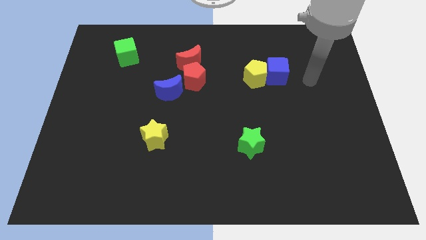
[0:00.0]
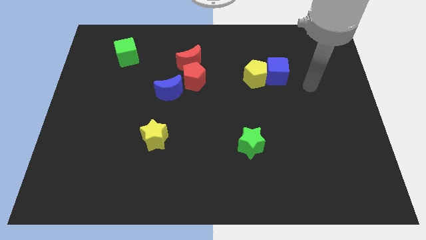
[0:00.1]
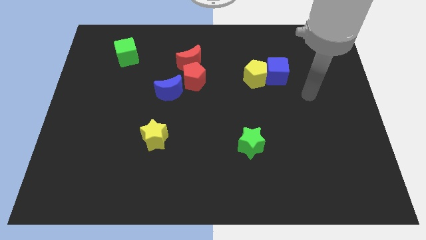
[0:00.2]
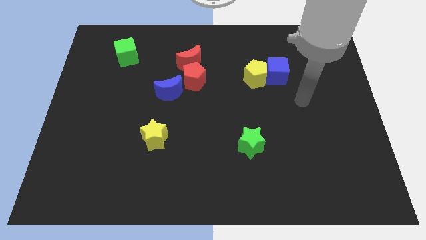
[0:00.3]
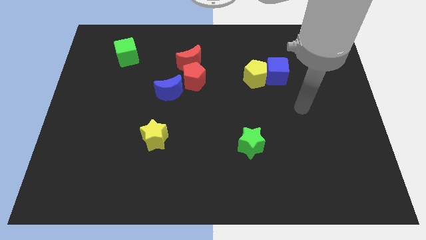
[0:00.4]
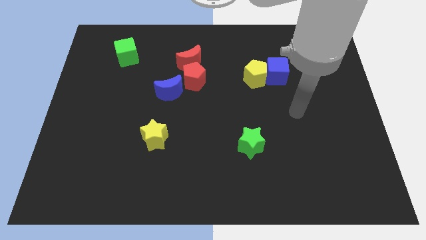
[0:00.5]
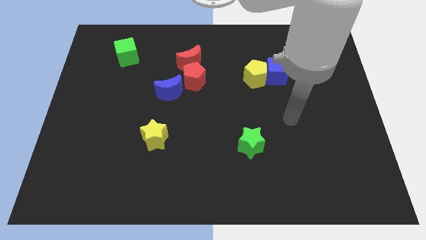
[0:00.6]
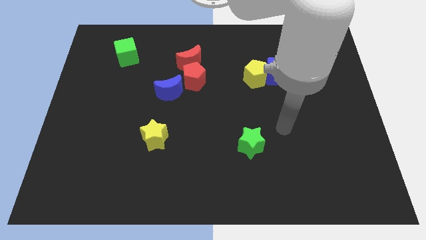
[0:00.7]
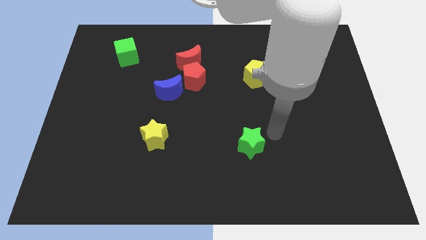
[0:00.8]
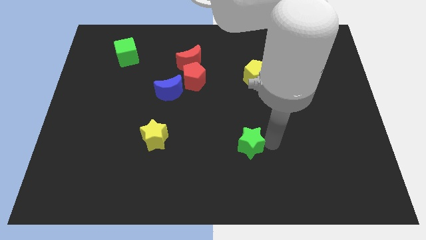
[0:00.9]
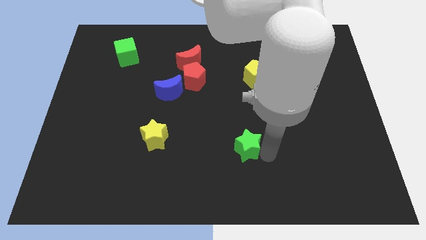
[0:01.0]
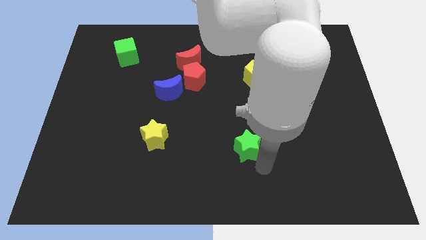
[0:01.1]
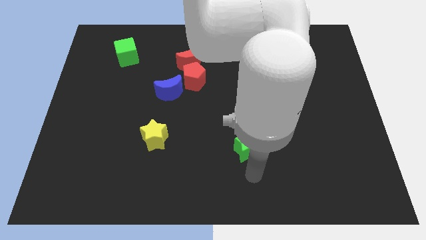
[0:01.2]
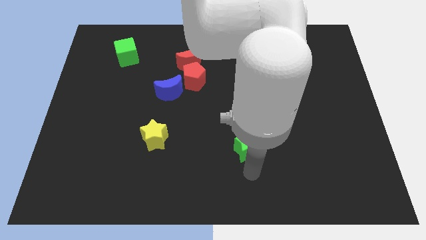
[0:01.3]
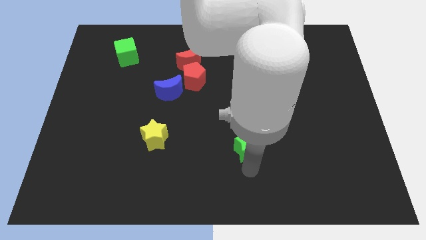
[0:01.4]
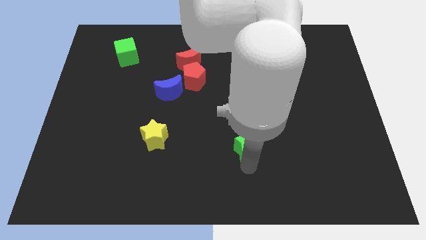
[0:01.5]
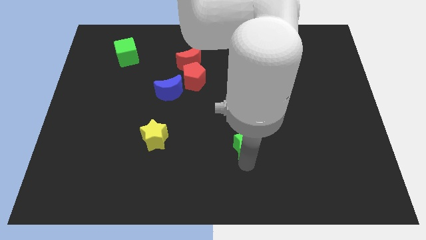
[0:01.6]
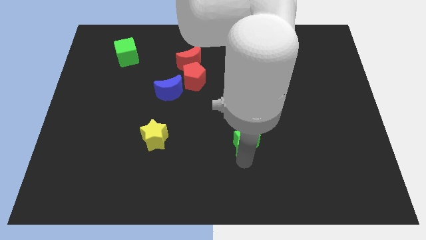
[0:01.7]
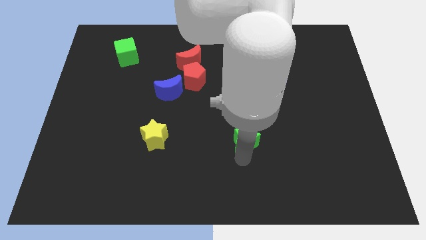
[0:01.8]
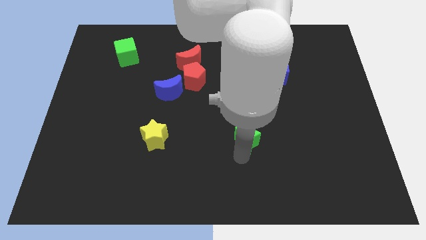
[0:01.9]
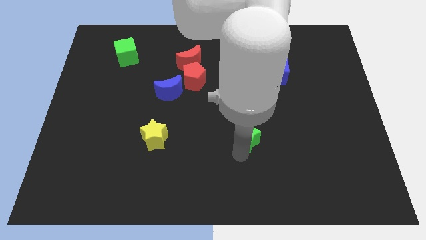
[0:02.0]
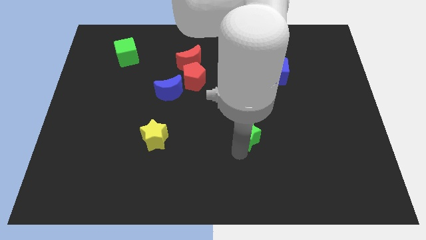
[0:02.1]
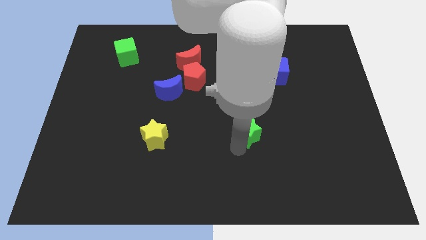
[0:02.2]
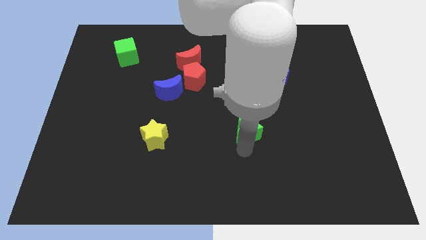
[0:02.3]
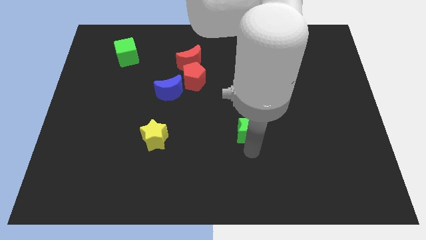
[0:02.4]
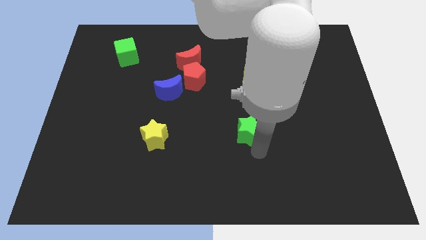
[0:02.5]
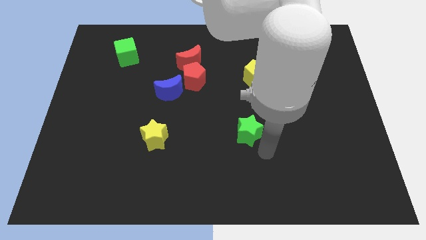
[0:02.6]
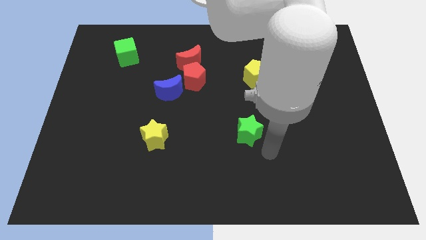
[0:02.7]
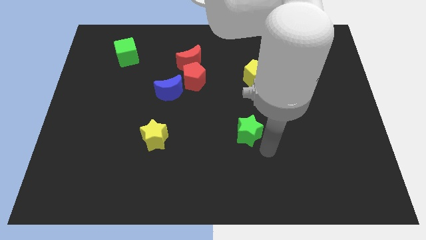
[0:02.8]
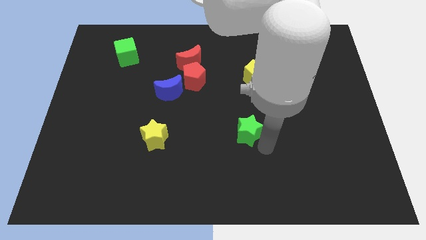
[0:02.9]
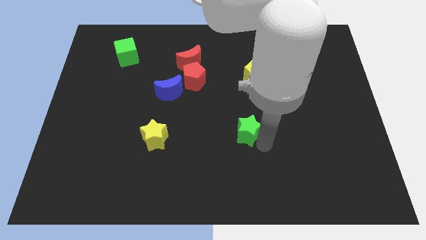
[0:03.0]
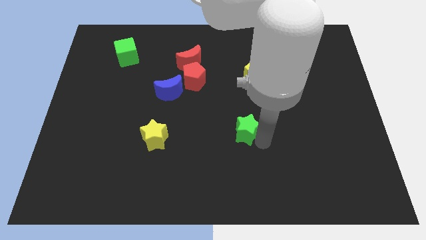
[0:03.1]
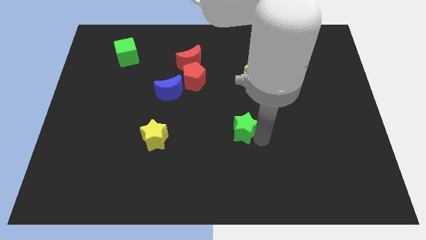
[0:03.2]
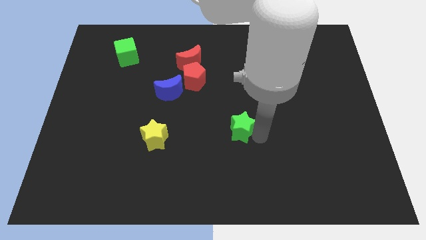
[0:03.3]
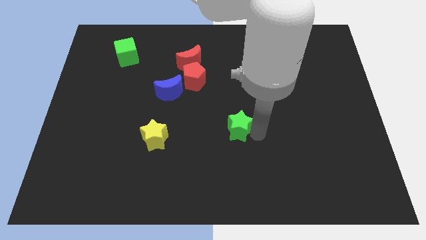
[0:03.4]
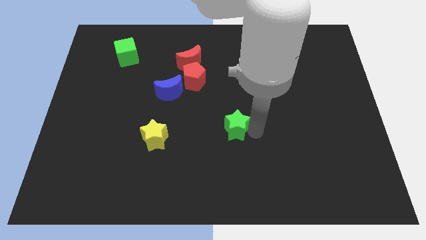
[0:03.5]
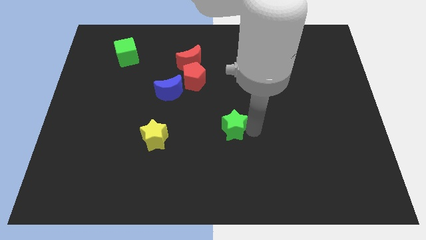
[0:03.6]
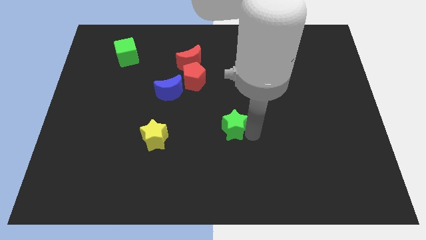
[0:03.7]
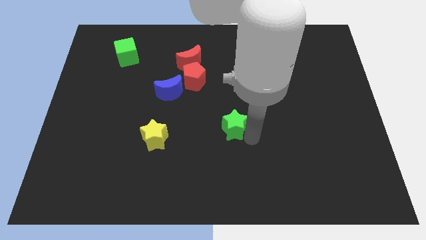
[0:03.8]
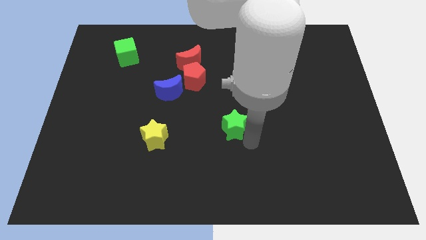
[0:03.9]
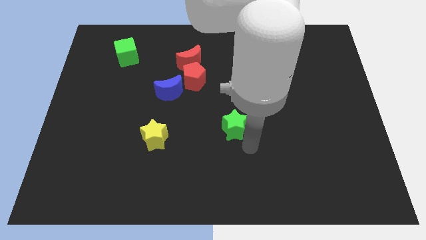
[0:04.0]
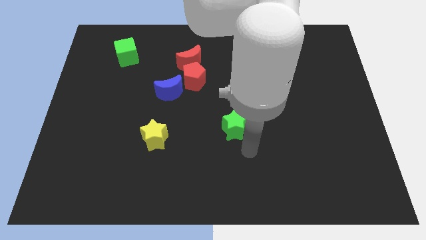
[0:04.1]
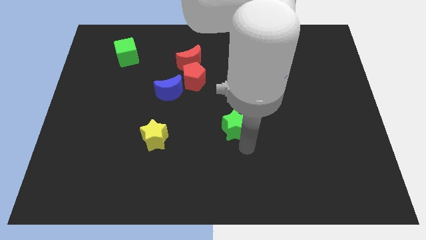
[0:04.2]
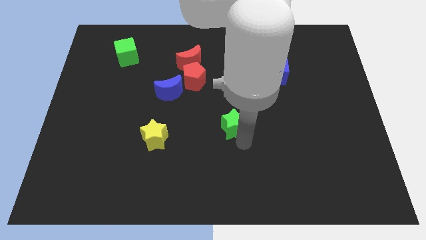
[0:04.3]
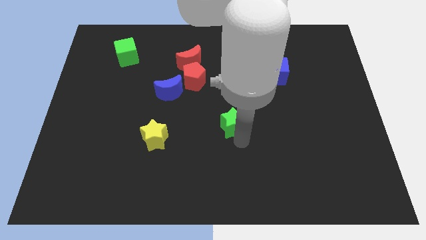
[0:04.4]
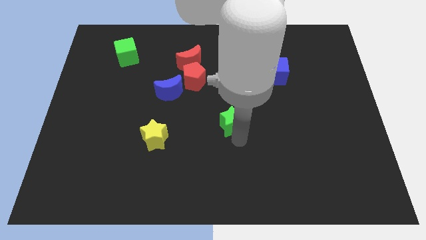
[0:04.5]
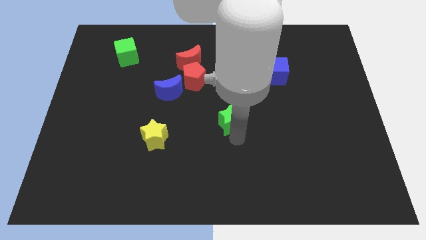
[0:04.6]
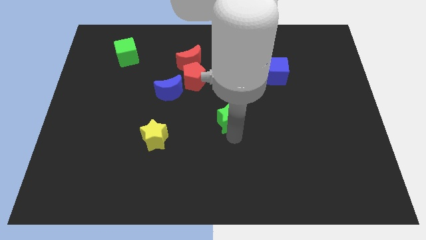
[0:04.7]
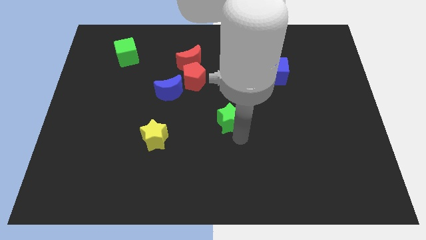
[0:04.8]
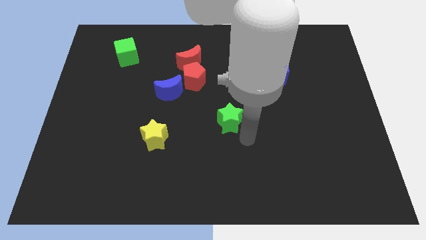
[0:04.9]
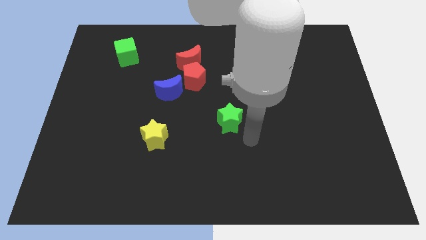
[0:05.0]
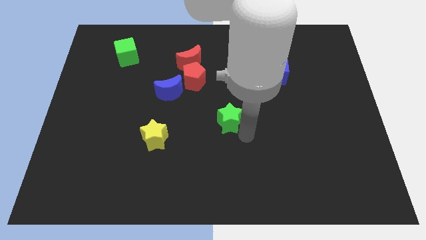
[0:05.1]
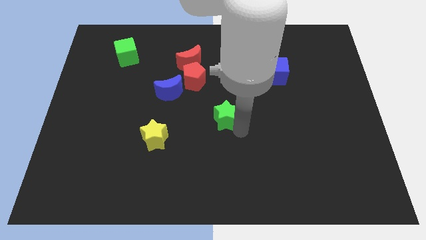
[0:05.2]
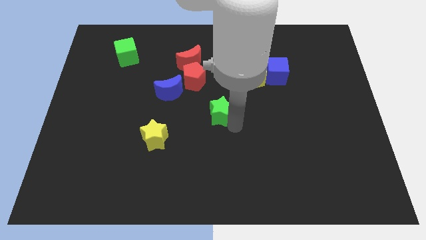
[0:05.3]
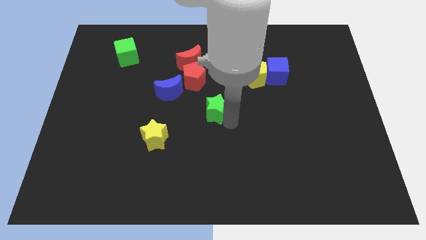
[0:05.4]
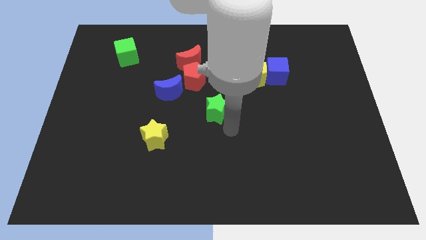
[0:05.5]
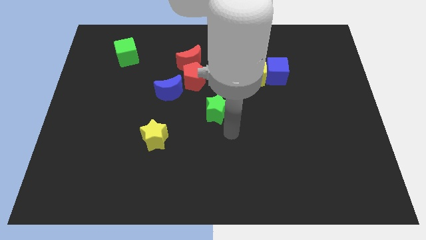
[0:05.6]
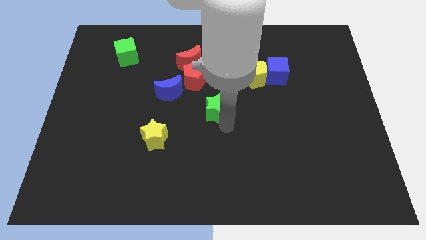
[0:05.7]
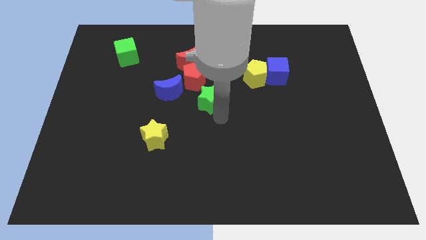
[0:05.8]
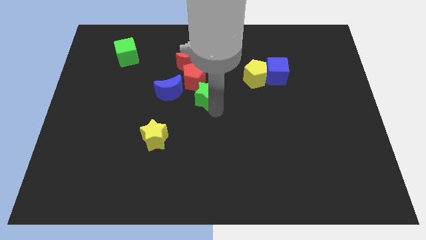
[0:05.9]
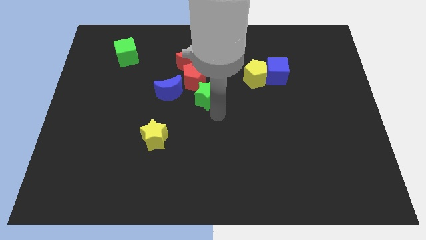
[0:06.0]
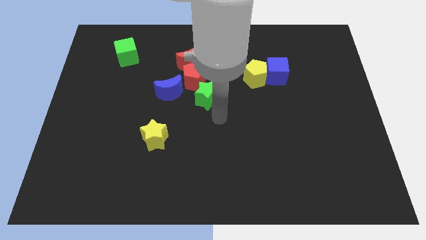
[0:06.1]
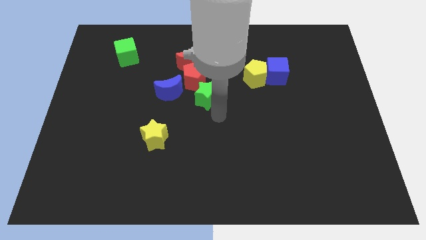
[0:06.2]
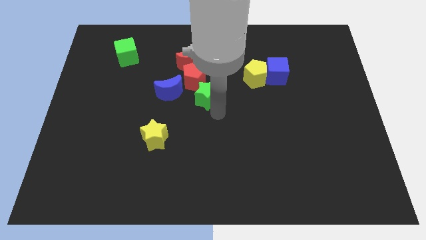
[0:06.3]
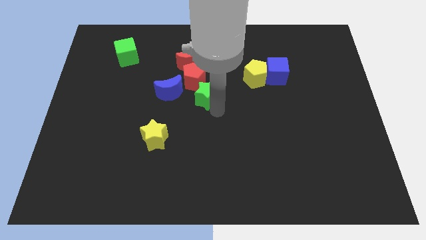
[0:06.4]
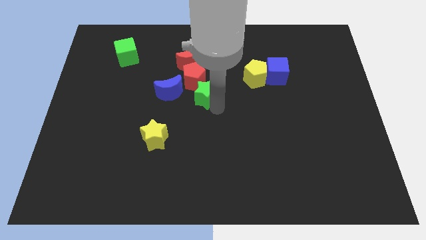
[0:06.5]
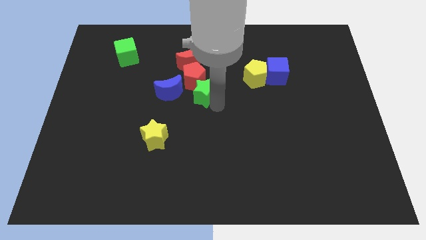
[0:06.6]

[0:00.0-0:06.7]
push the green star next to the red pentagon
